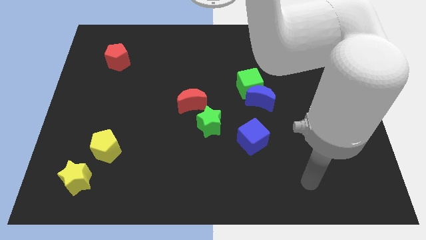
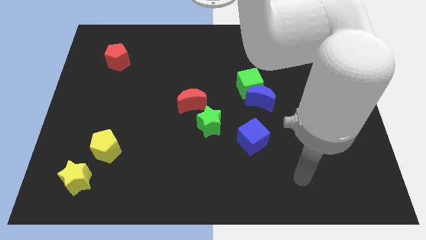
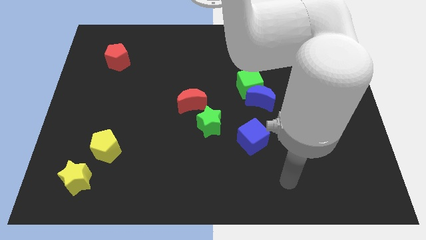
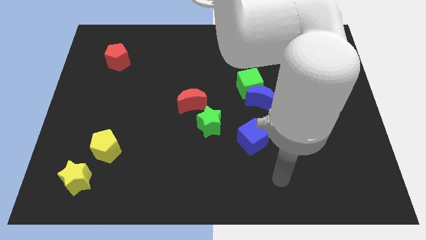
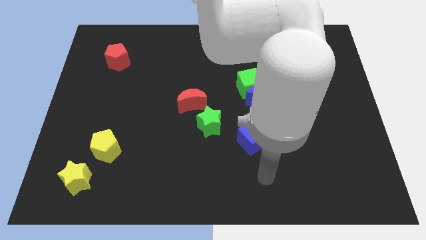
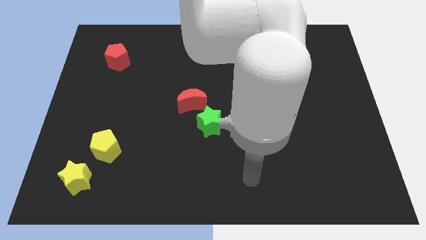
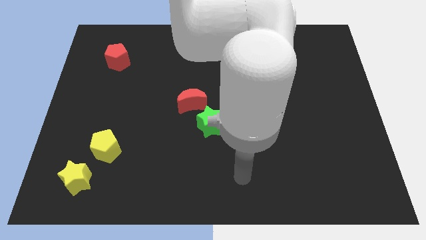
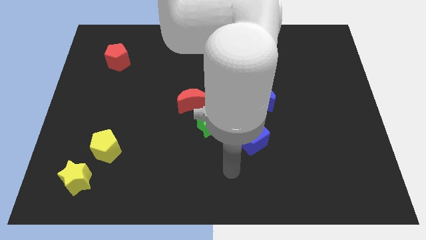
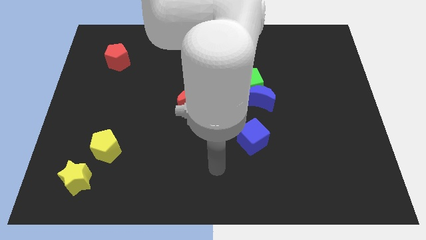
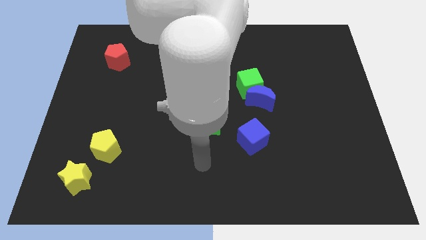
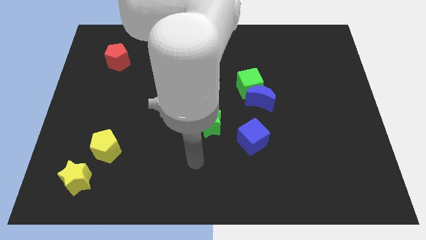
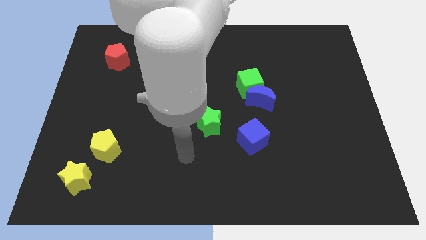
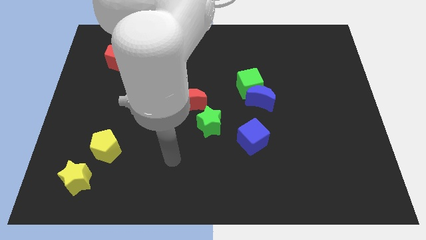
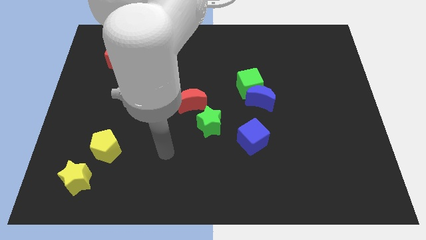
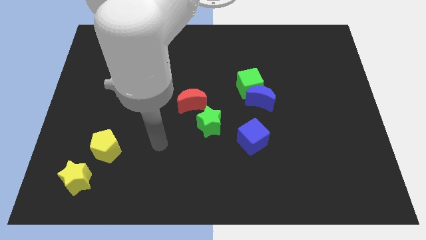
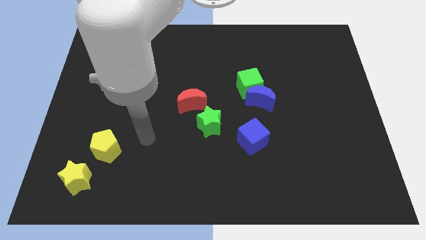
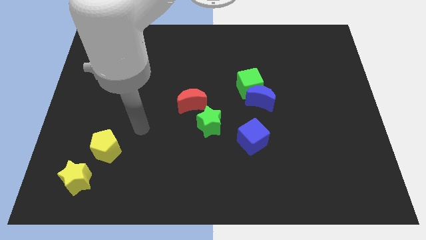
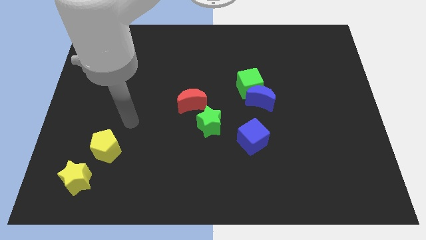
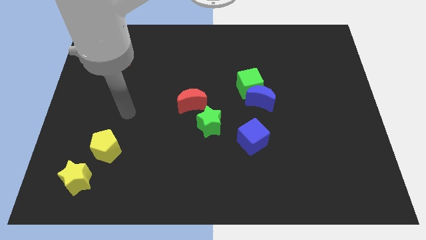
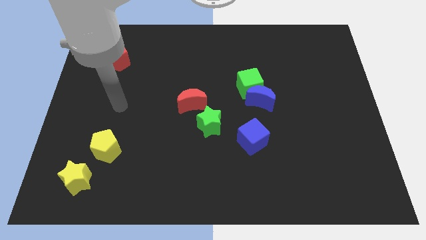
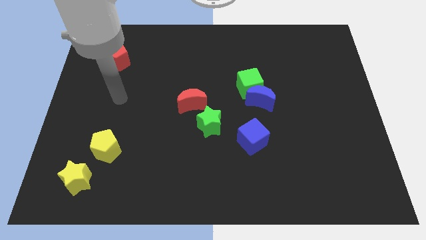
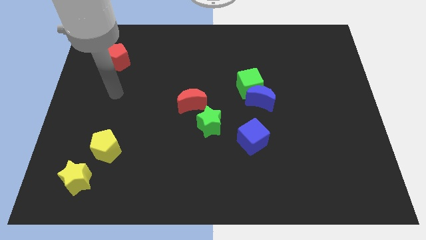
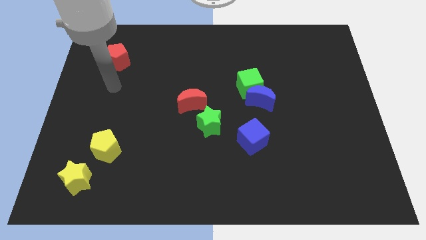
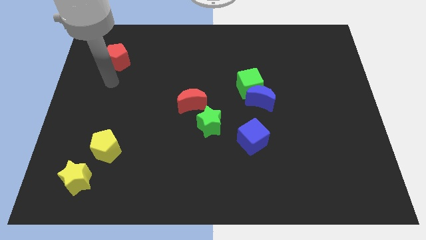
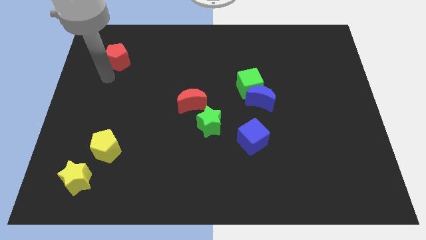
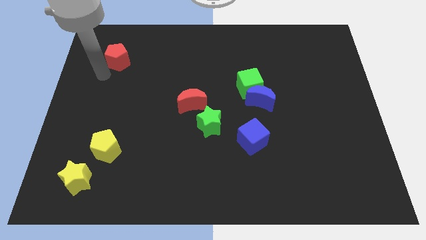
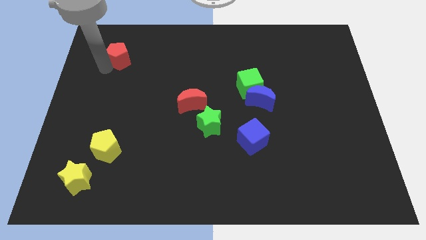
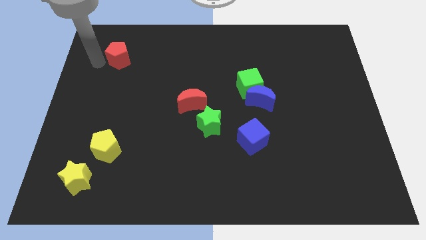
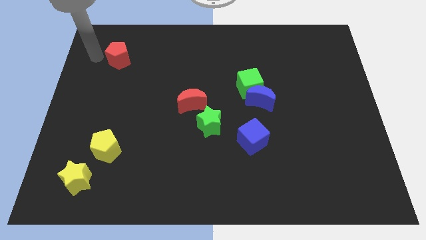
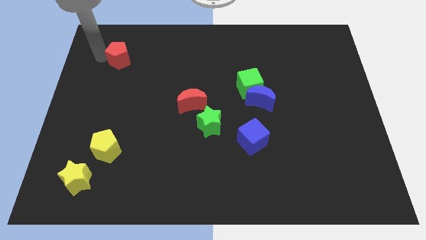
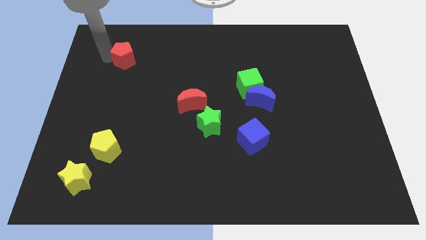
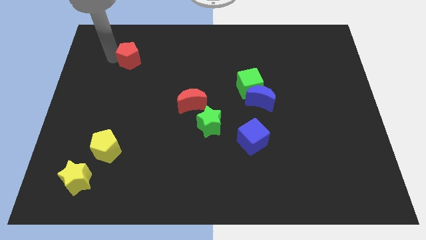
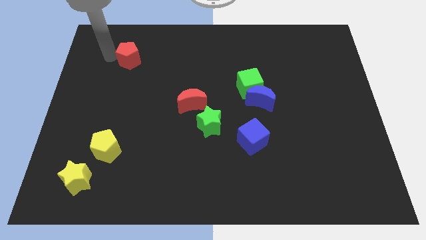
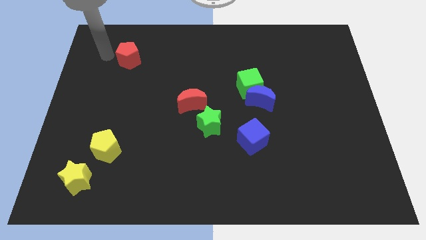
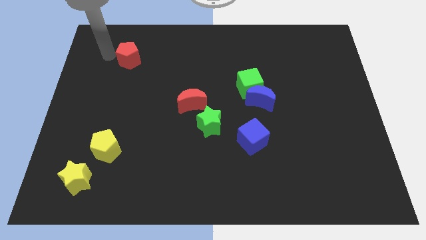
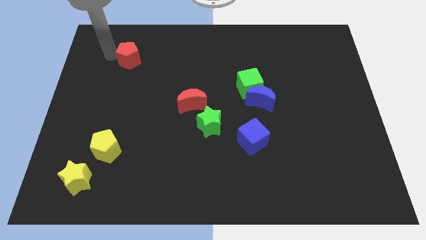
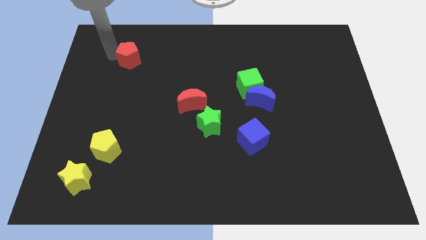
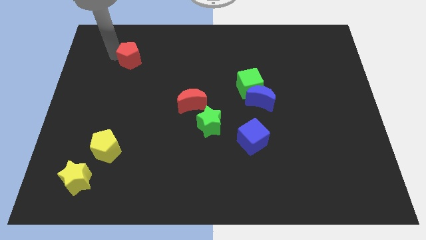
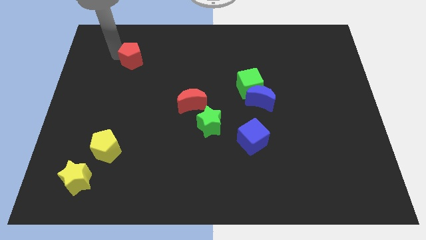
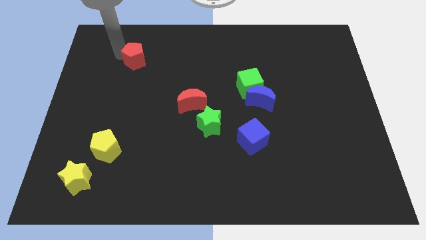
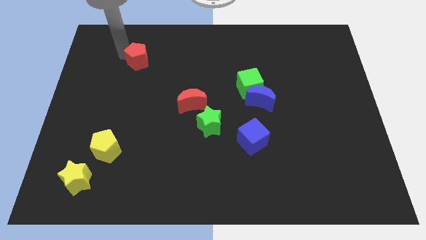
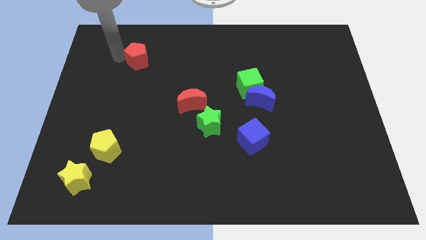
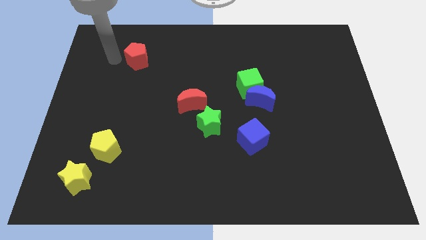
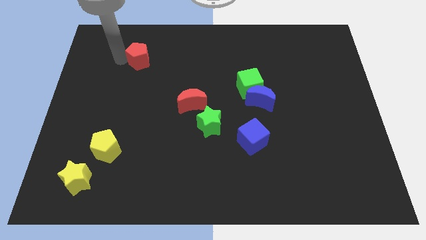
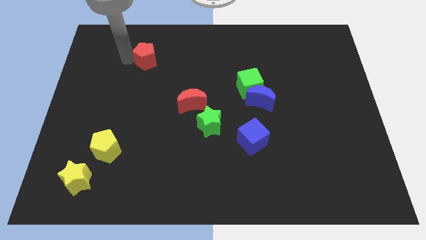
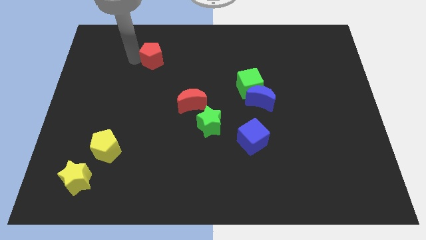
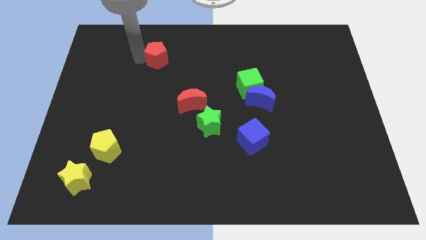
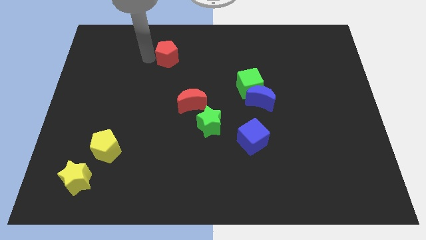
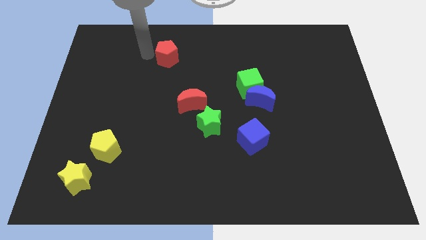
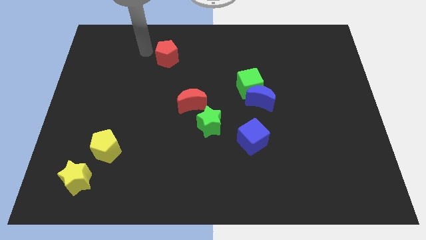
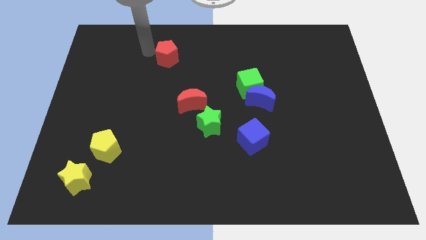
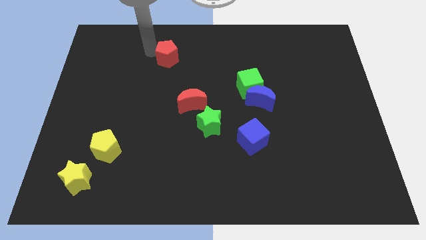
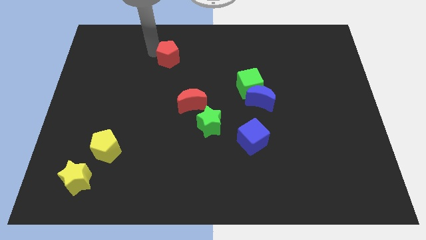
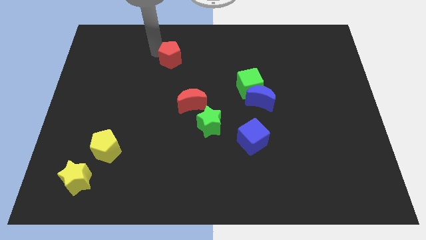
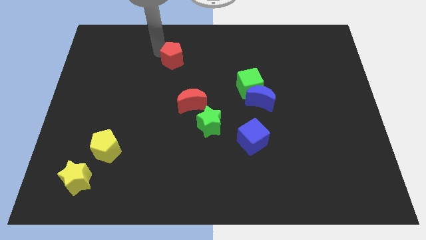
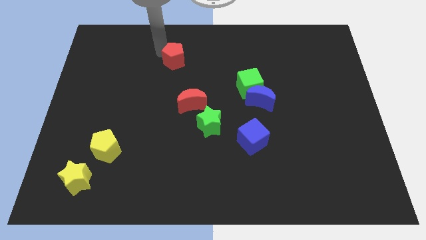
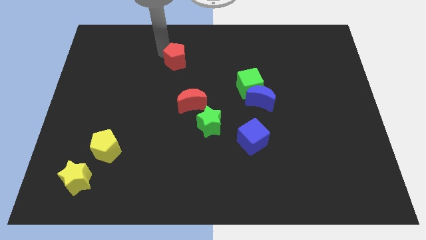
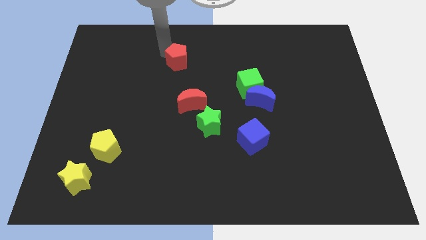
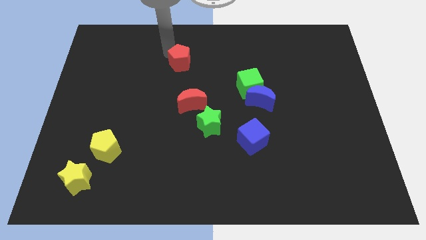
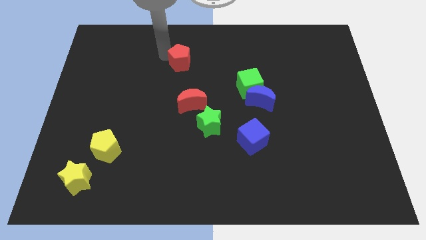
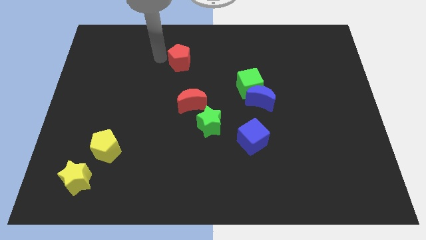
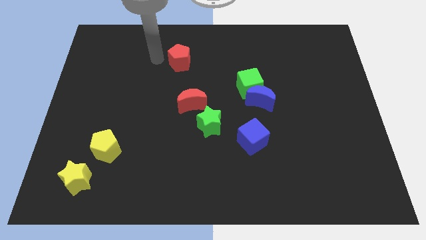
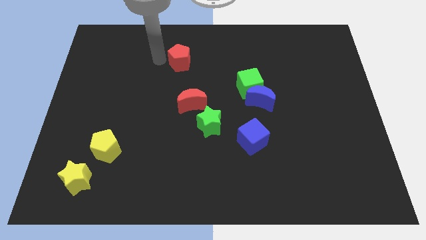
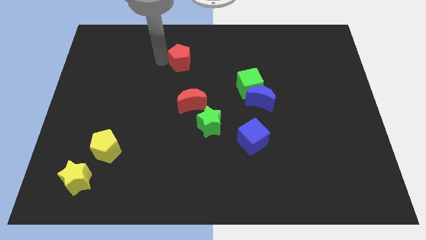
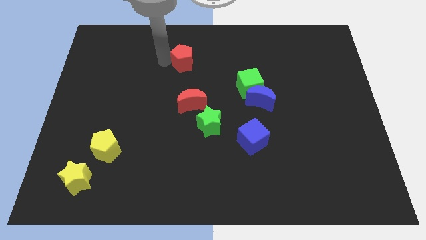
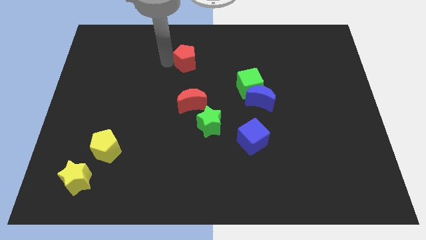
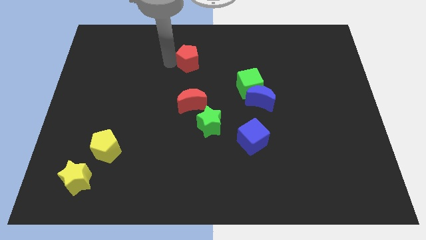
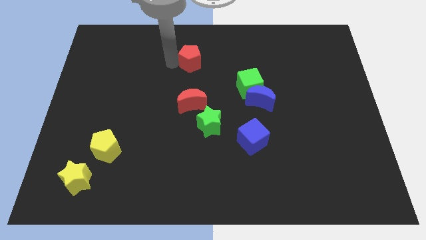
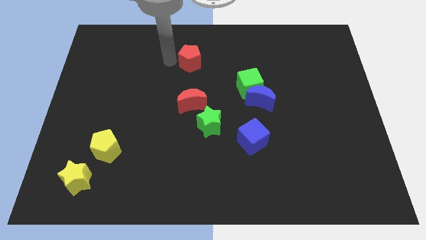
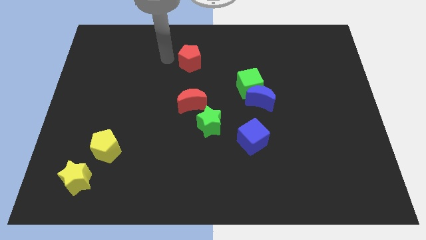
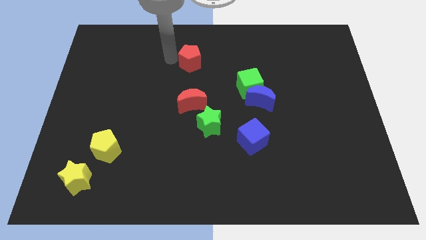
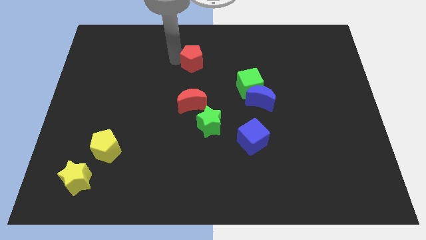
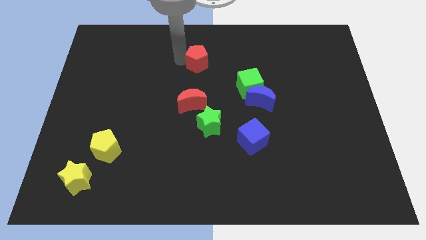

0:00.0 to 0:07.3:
move the red pentagon to the right

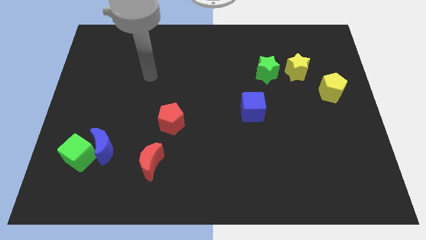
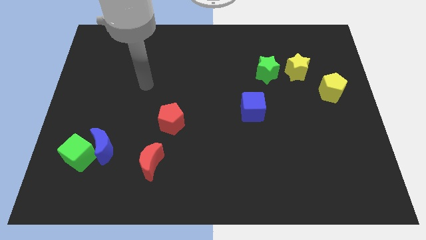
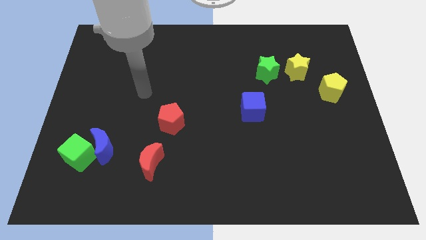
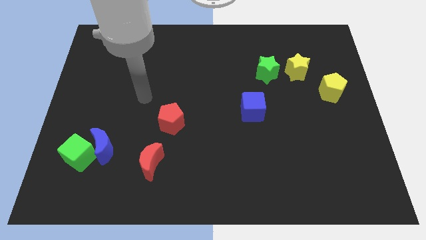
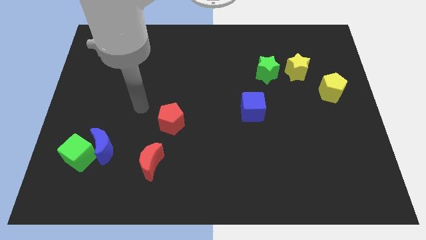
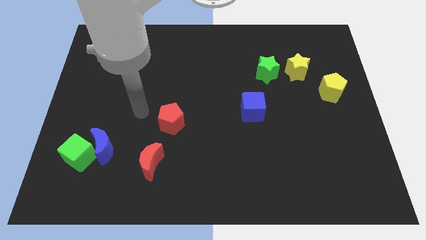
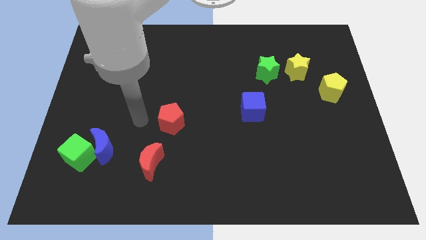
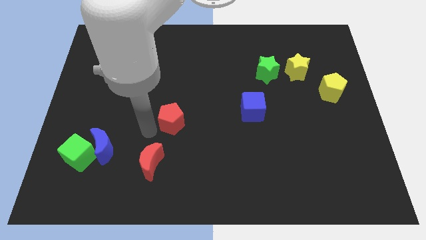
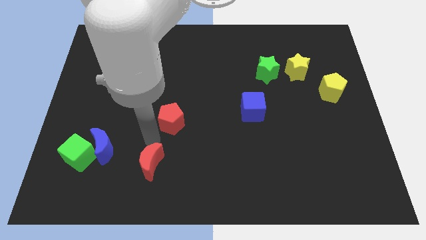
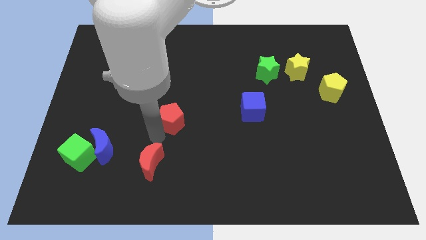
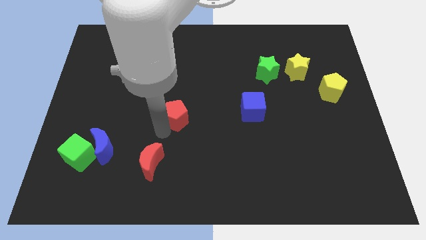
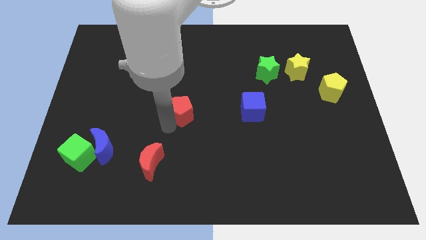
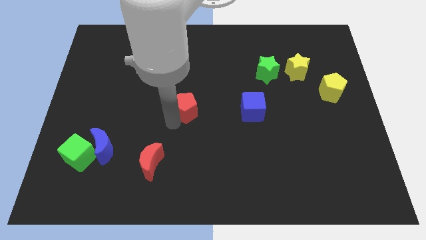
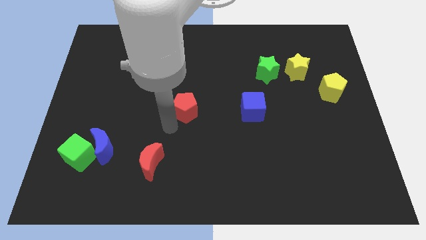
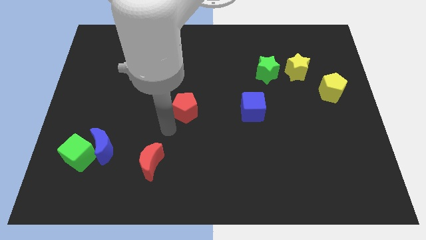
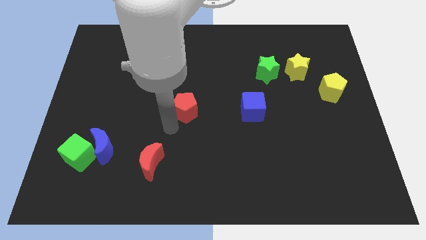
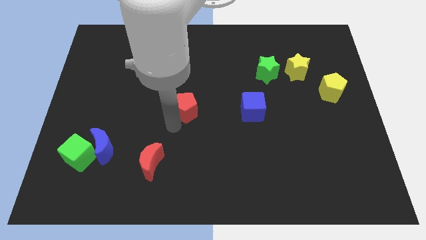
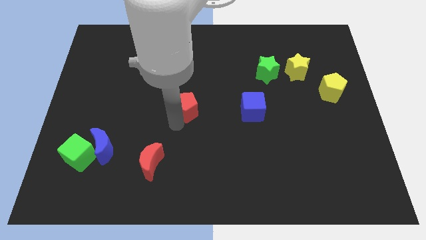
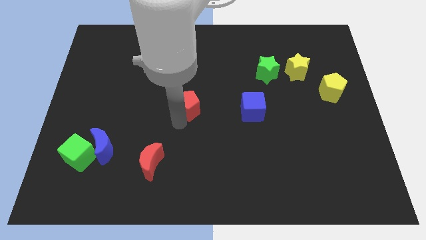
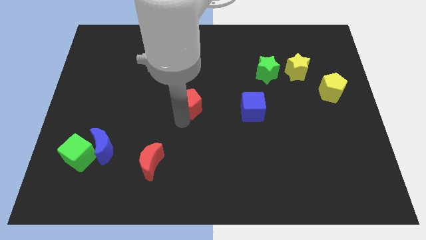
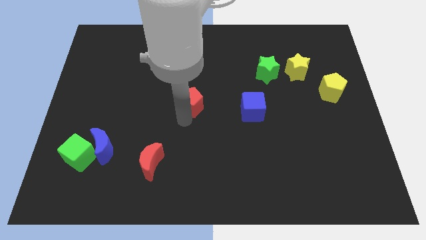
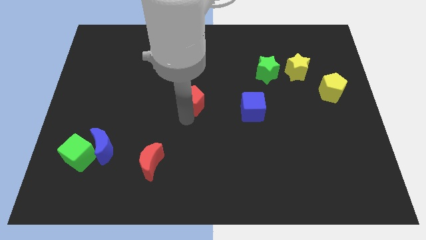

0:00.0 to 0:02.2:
slightly move the red pentagon diagonally up and to the right
